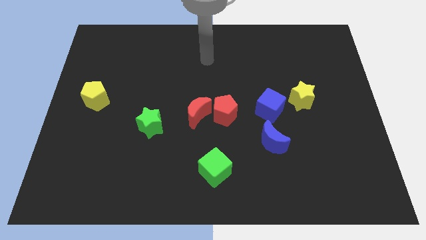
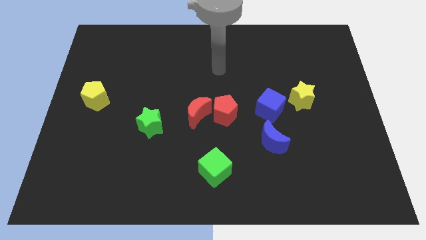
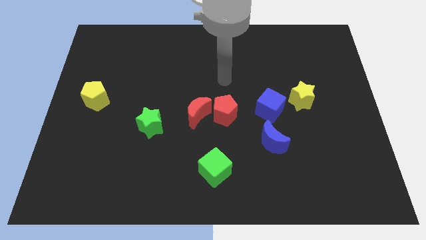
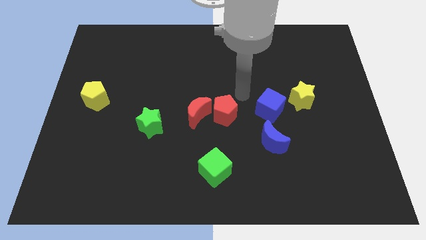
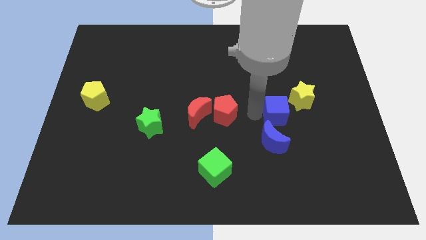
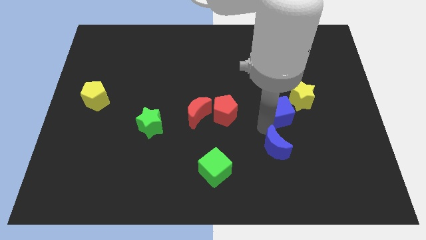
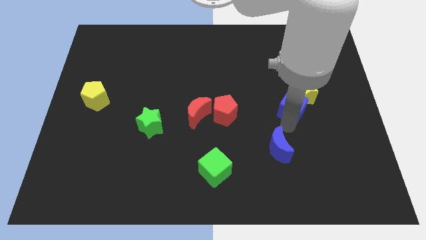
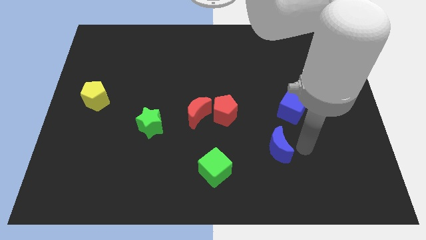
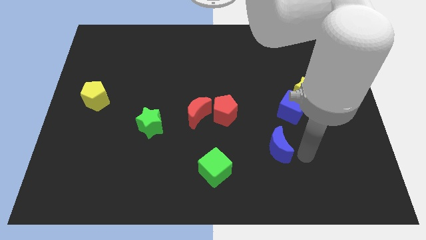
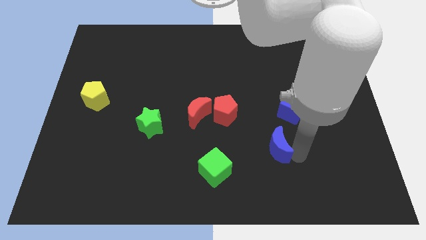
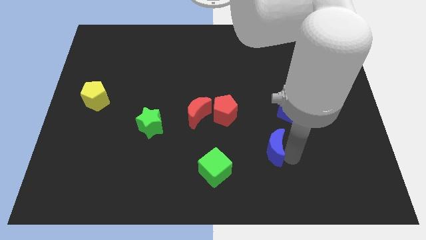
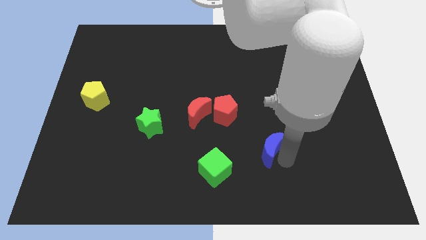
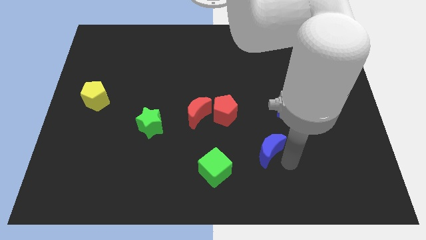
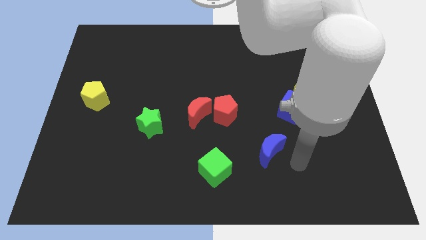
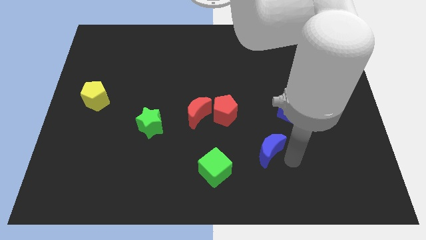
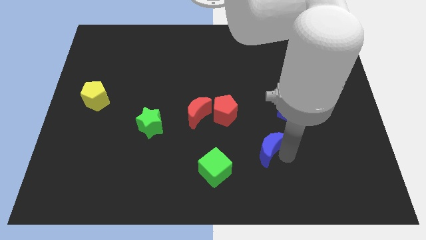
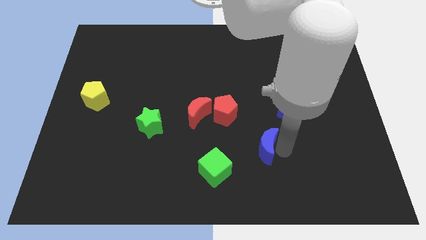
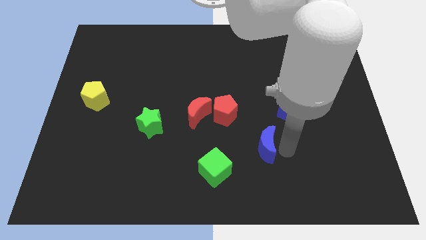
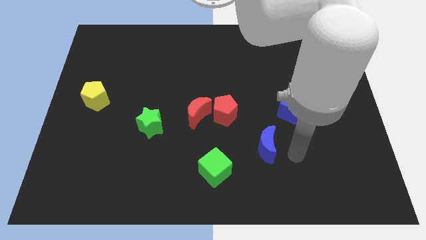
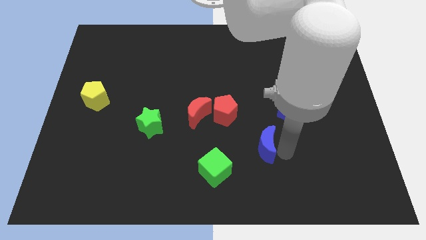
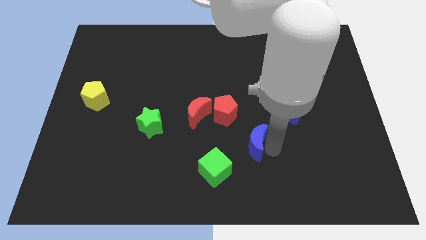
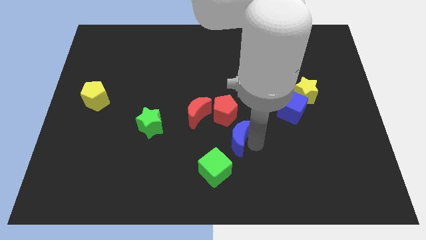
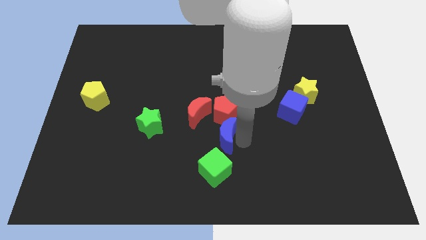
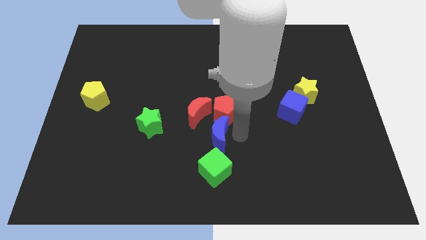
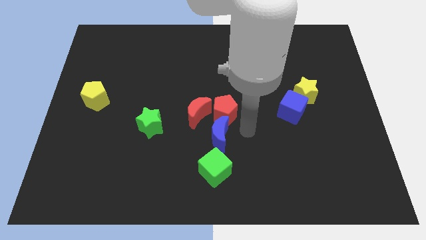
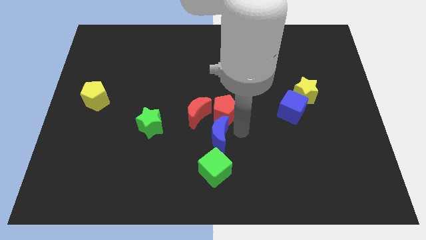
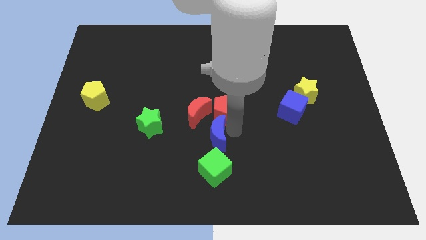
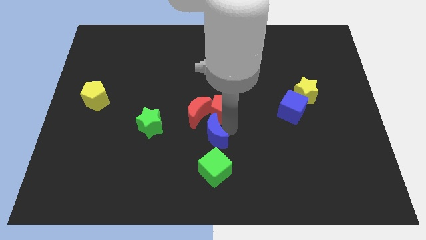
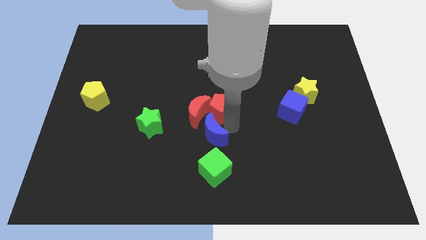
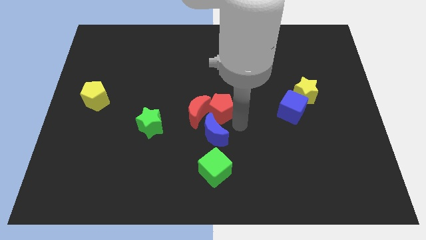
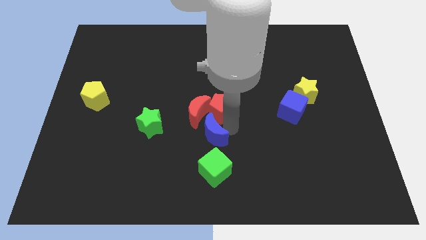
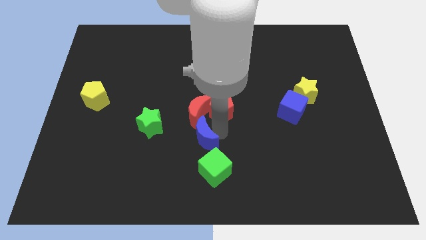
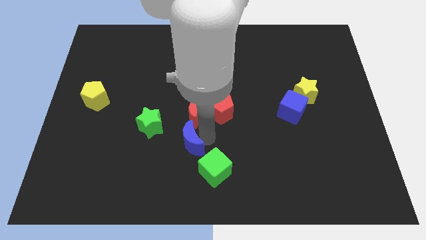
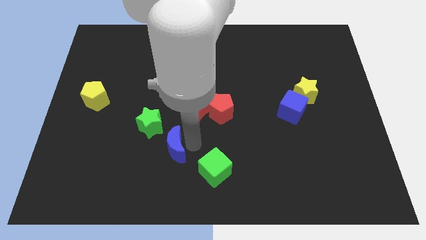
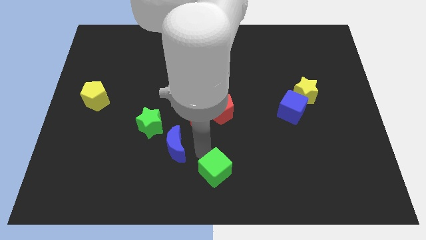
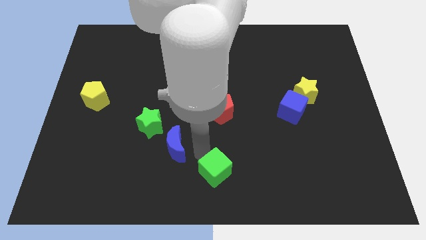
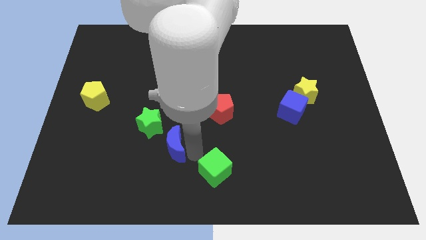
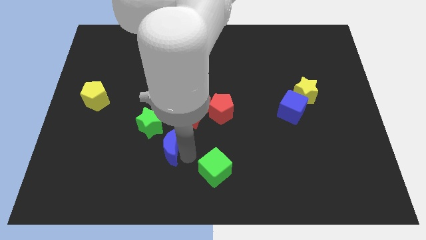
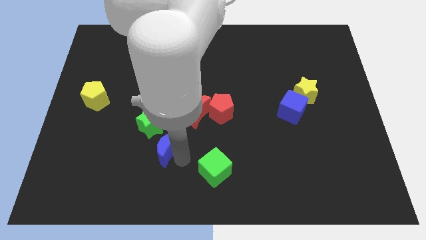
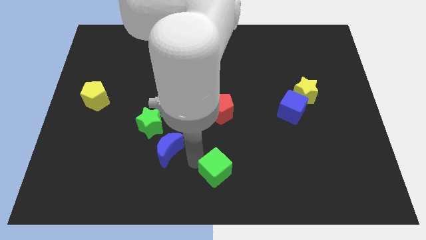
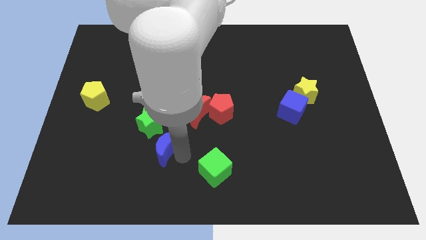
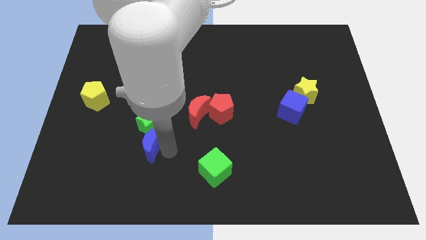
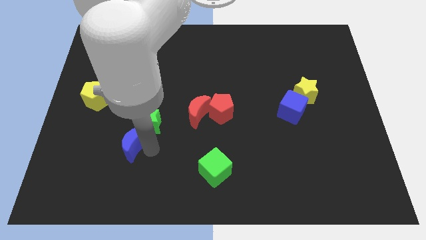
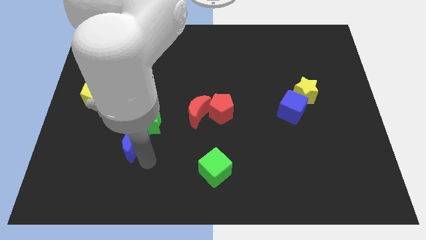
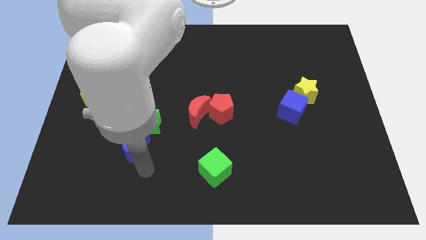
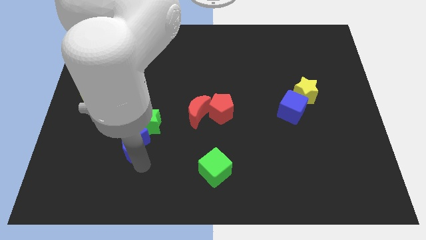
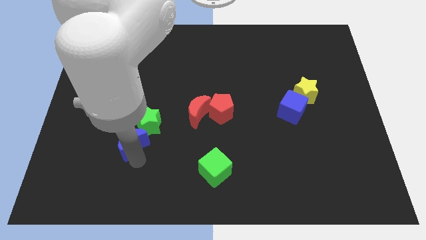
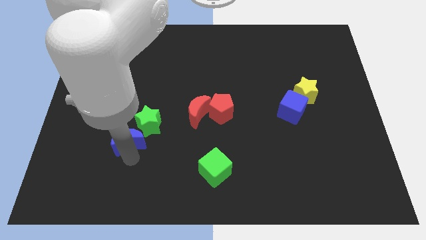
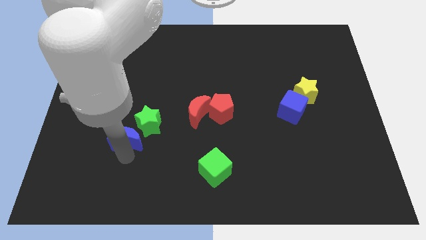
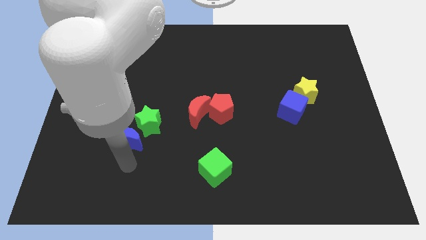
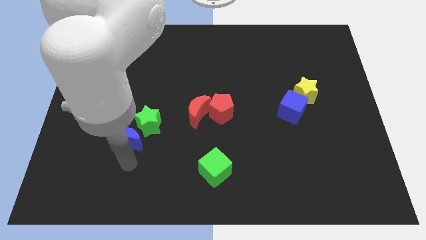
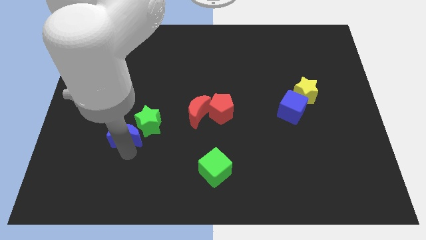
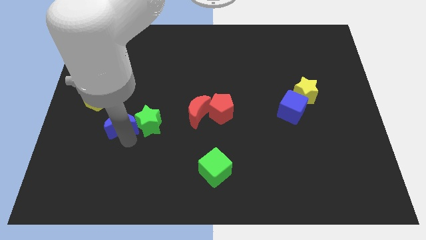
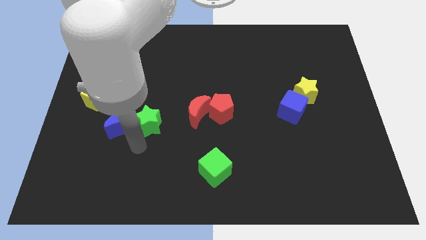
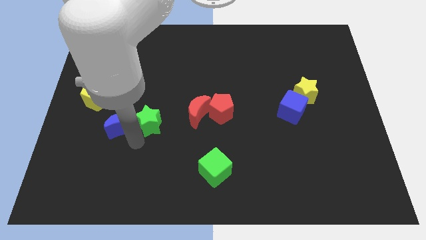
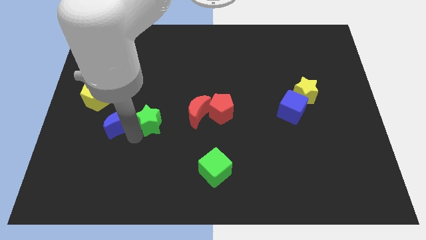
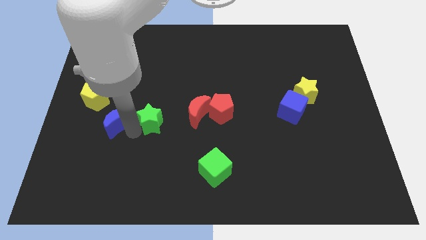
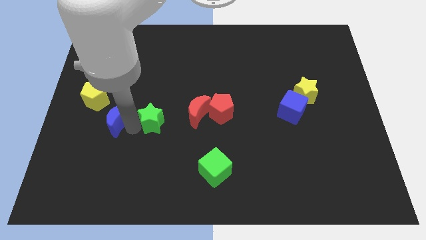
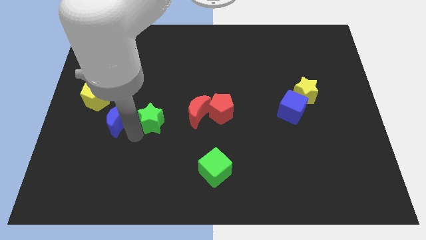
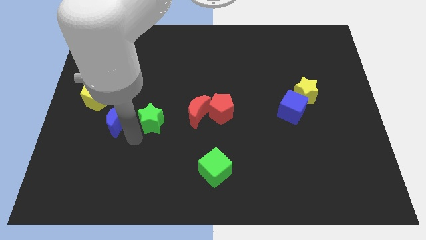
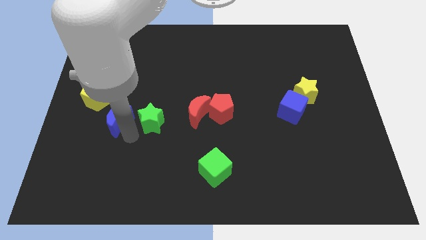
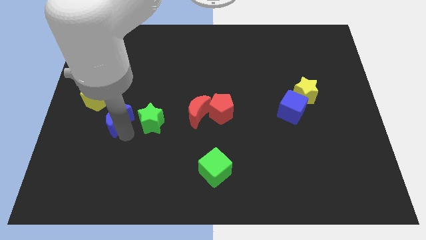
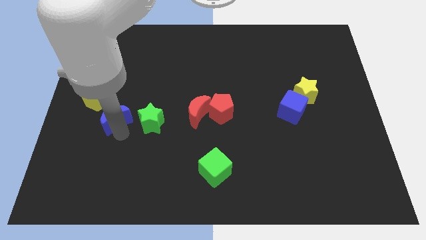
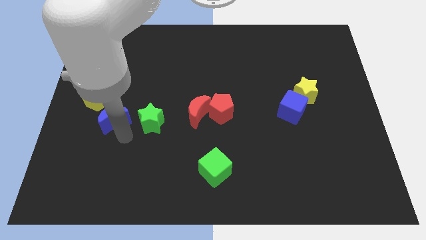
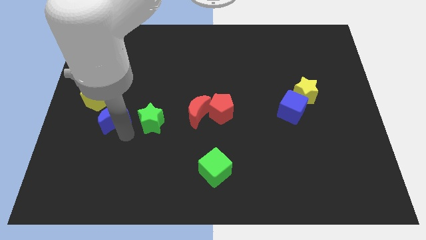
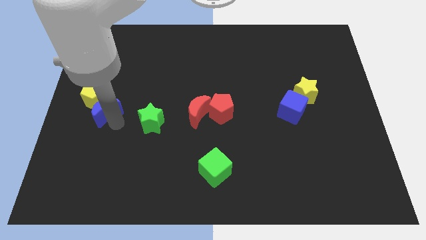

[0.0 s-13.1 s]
push the blue moon next to the yellow pentagon
